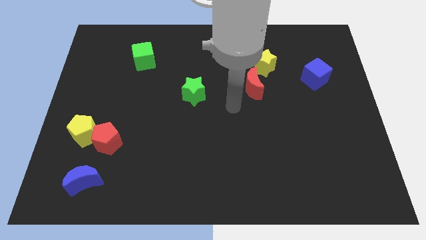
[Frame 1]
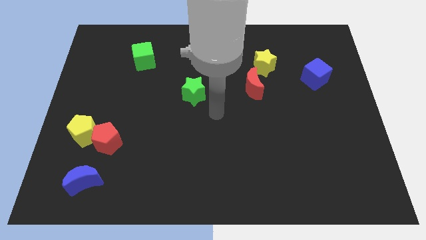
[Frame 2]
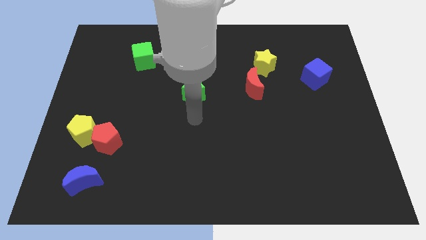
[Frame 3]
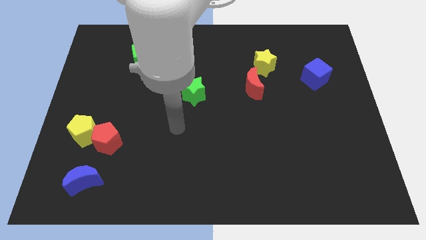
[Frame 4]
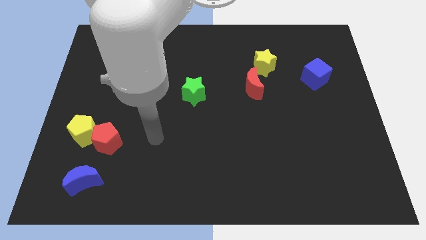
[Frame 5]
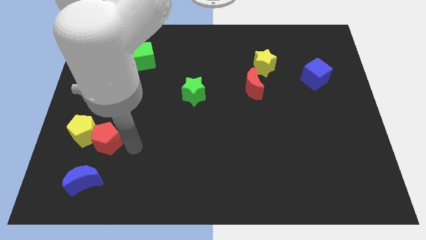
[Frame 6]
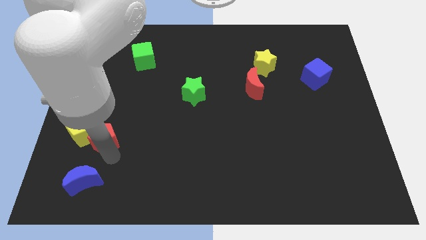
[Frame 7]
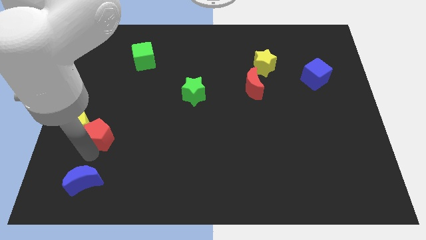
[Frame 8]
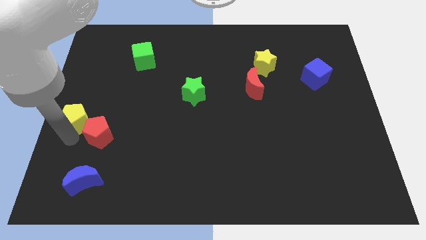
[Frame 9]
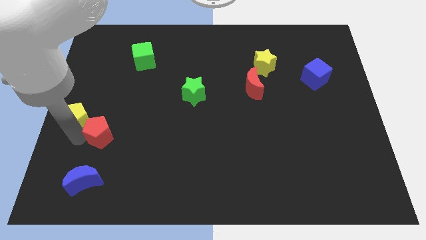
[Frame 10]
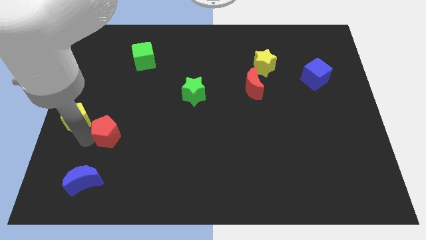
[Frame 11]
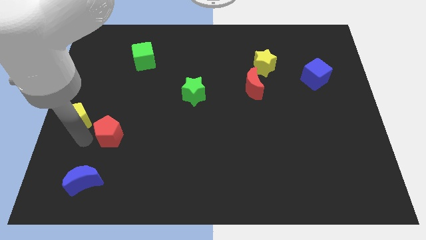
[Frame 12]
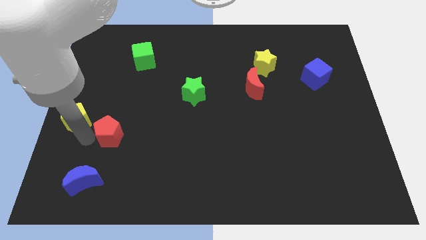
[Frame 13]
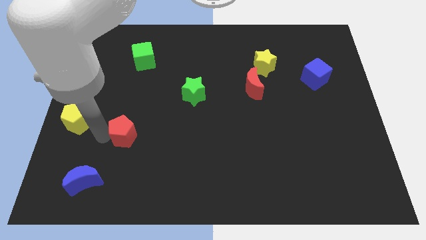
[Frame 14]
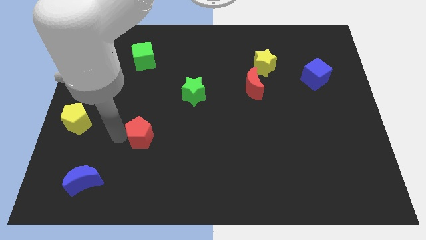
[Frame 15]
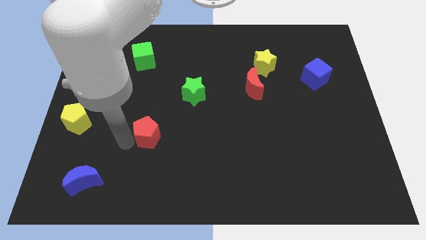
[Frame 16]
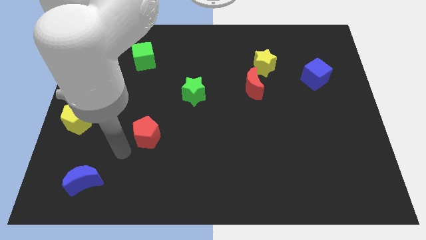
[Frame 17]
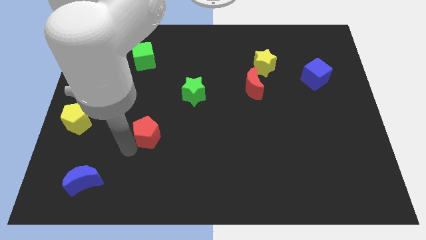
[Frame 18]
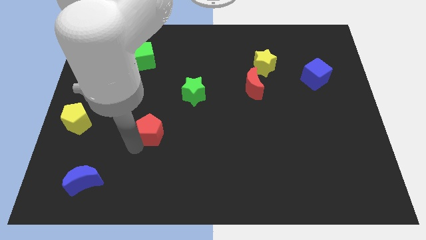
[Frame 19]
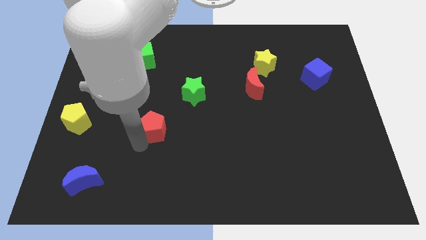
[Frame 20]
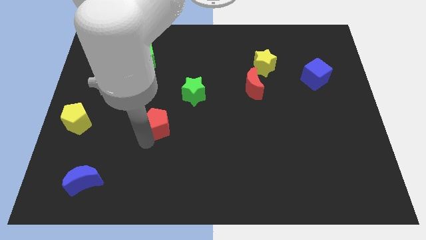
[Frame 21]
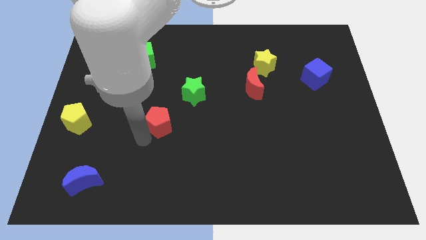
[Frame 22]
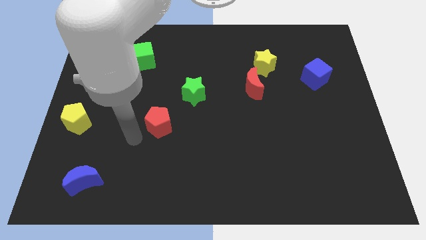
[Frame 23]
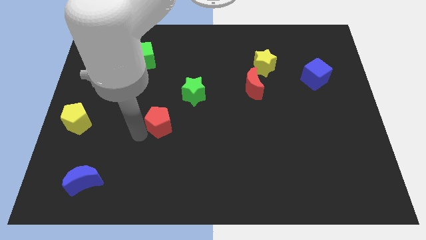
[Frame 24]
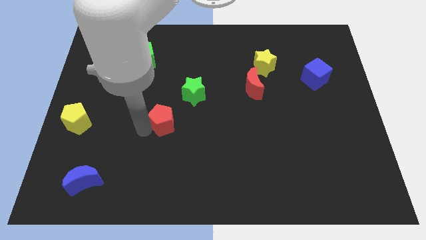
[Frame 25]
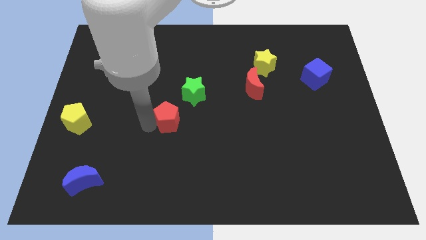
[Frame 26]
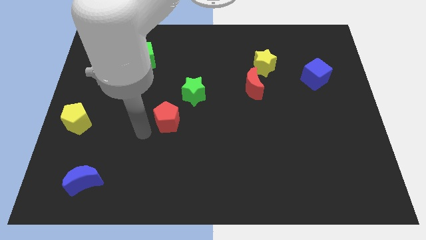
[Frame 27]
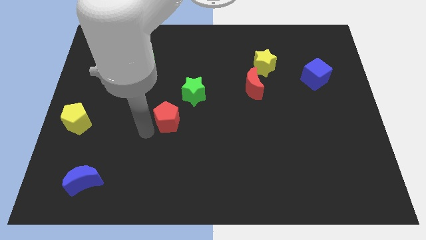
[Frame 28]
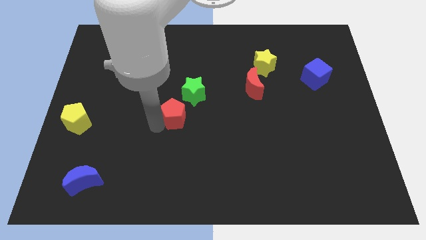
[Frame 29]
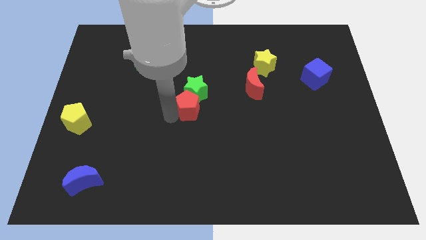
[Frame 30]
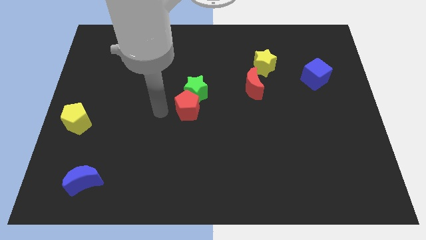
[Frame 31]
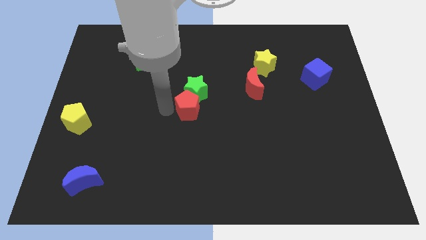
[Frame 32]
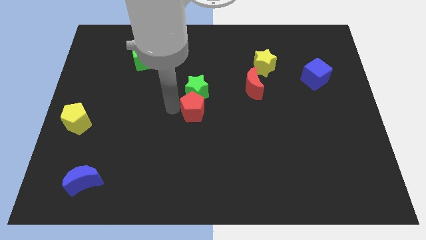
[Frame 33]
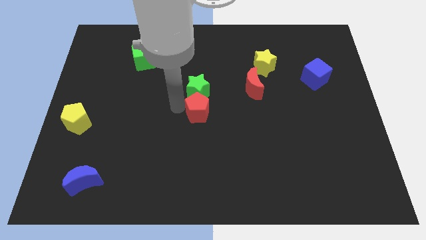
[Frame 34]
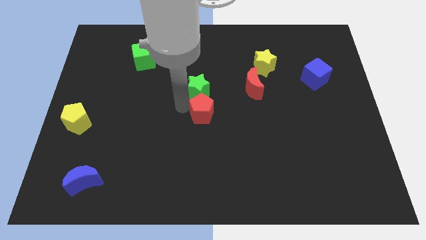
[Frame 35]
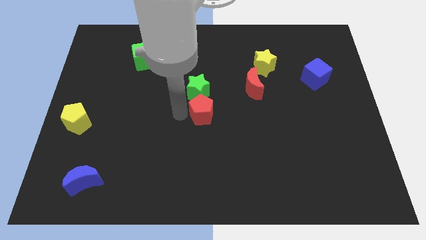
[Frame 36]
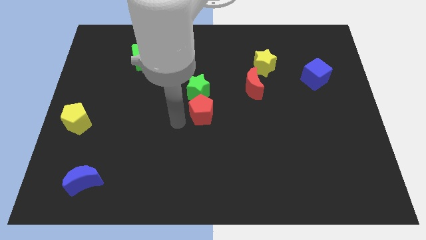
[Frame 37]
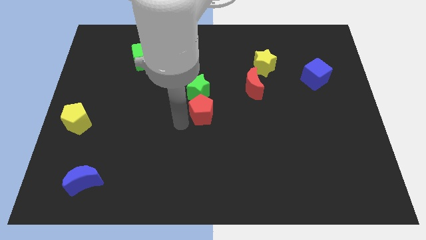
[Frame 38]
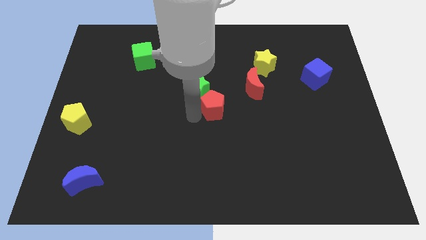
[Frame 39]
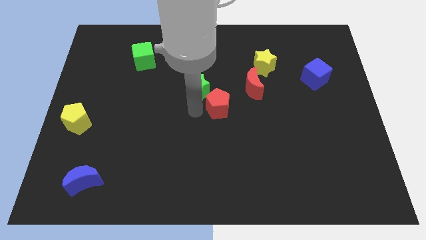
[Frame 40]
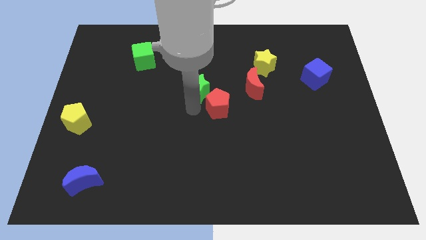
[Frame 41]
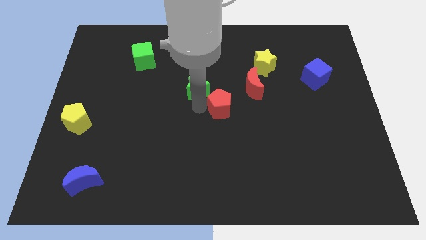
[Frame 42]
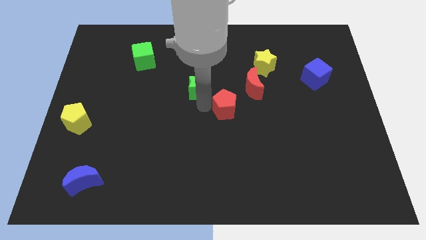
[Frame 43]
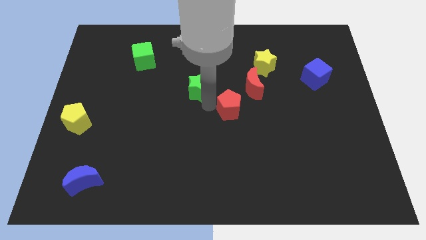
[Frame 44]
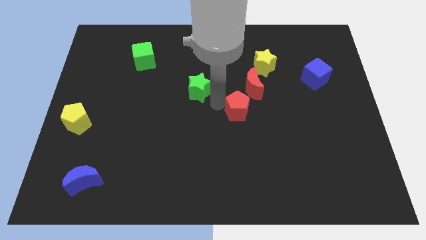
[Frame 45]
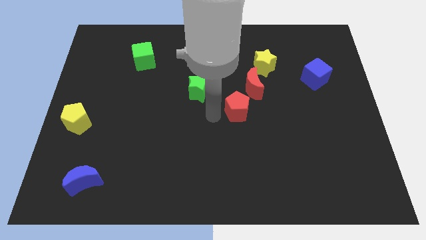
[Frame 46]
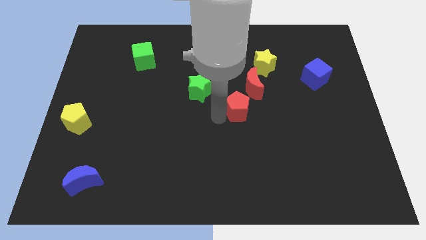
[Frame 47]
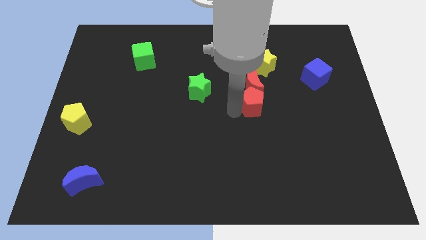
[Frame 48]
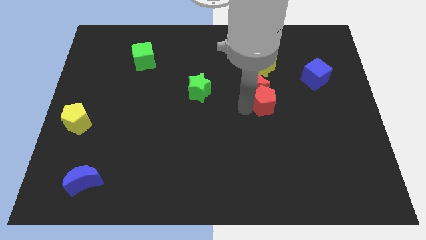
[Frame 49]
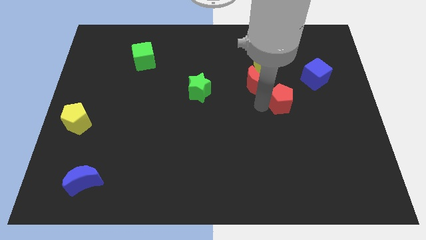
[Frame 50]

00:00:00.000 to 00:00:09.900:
push the red pentagon to the bottom left of the blue cube

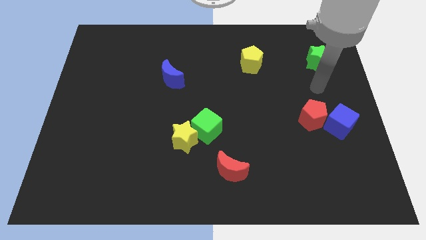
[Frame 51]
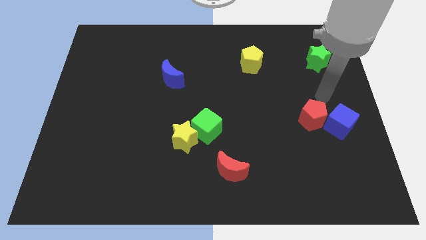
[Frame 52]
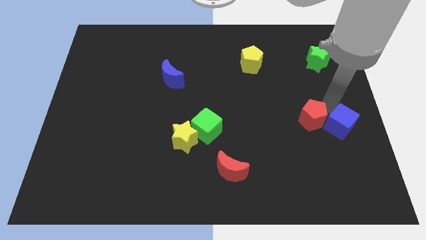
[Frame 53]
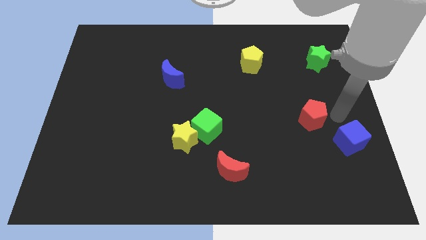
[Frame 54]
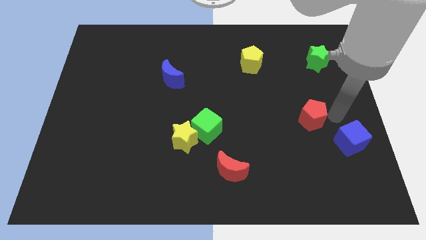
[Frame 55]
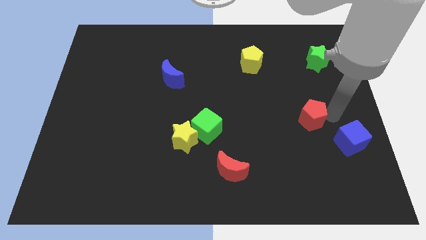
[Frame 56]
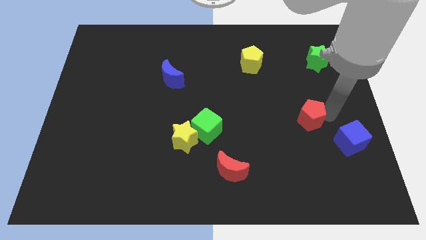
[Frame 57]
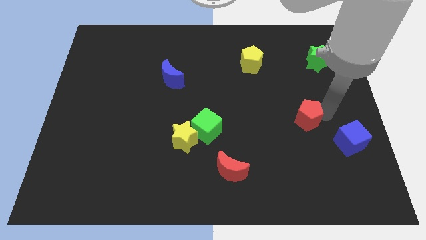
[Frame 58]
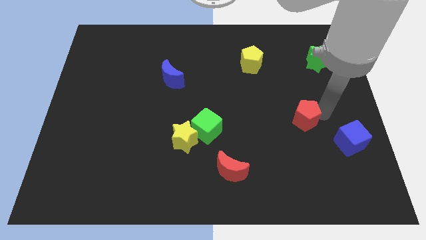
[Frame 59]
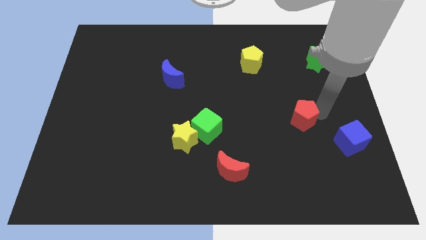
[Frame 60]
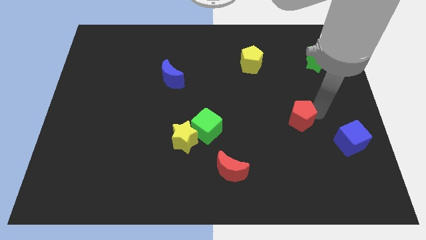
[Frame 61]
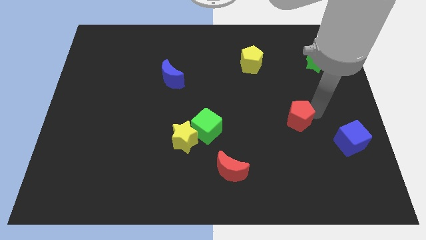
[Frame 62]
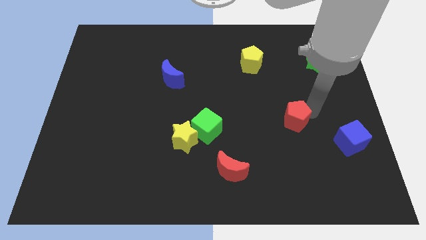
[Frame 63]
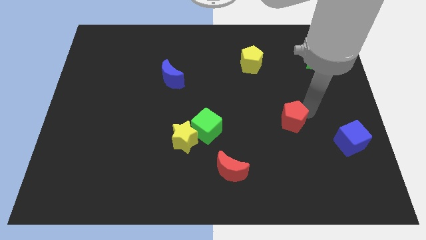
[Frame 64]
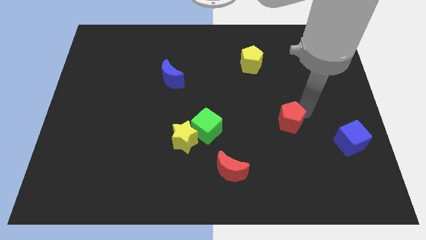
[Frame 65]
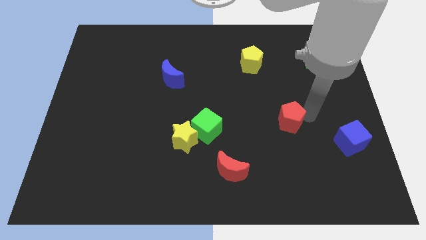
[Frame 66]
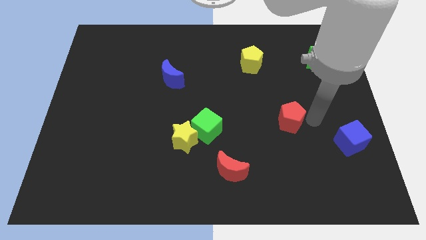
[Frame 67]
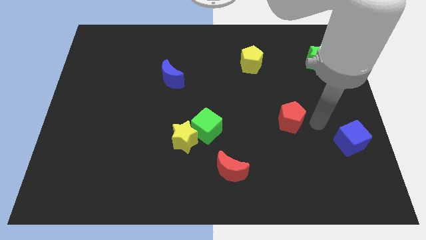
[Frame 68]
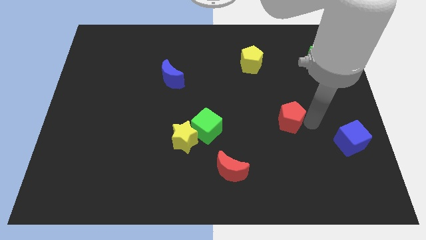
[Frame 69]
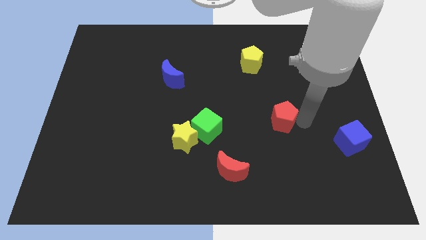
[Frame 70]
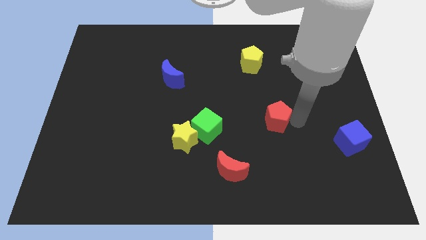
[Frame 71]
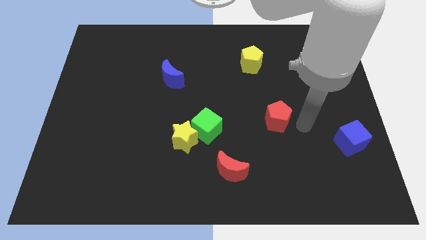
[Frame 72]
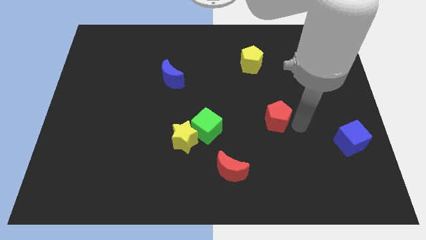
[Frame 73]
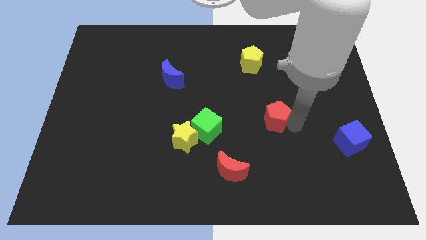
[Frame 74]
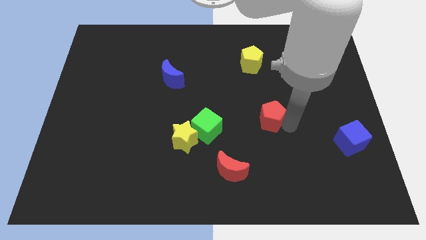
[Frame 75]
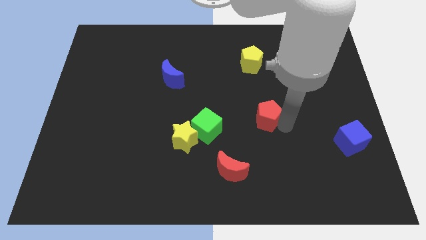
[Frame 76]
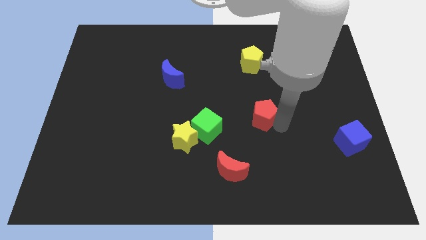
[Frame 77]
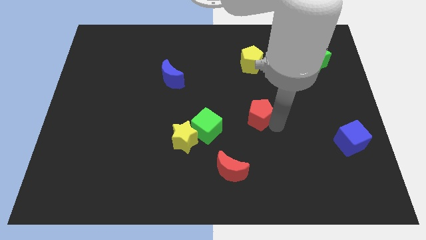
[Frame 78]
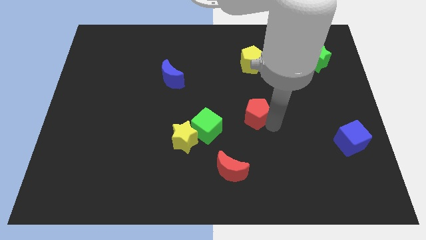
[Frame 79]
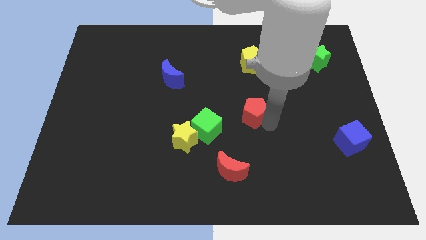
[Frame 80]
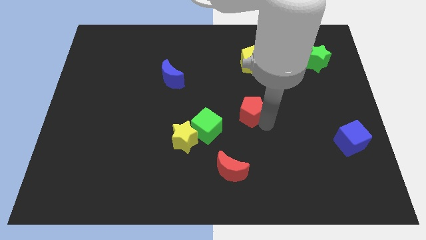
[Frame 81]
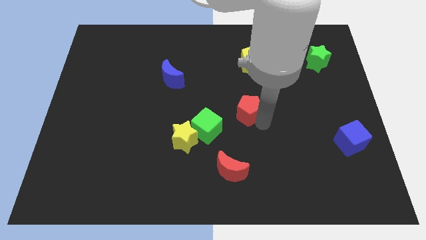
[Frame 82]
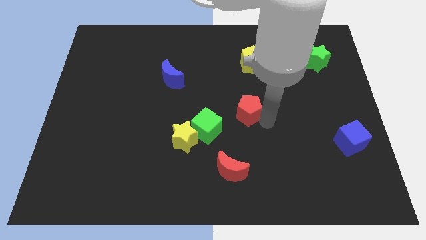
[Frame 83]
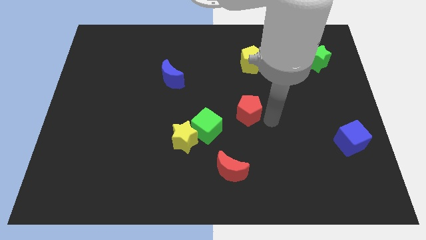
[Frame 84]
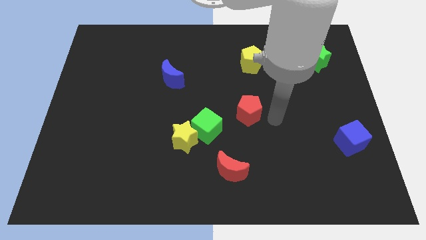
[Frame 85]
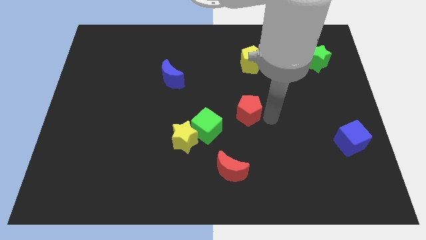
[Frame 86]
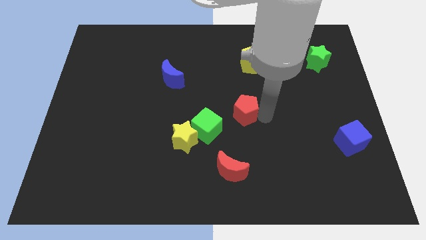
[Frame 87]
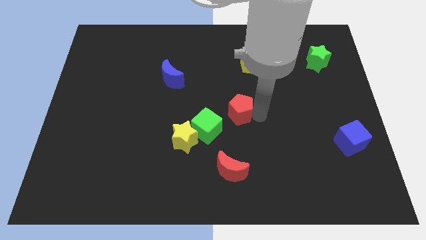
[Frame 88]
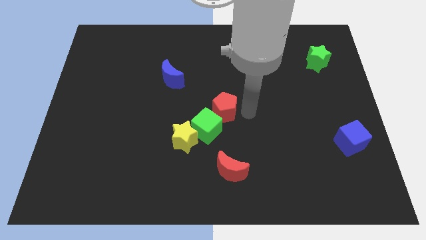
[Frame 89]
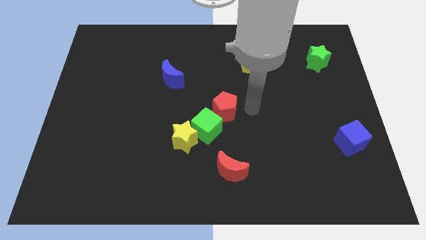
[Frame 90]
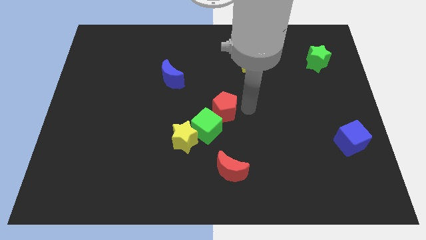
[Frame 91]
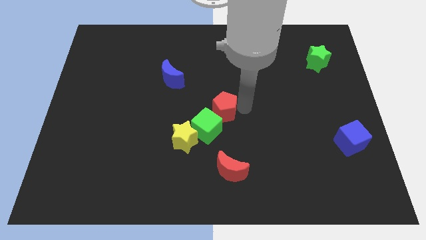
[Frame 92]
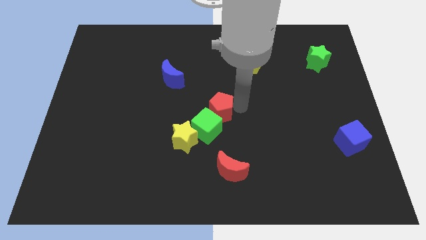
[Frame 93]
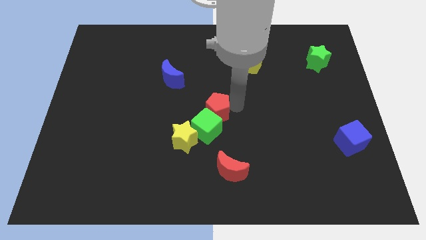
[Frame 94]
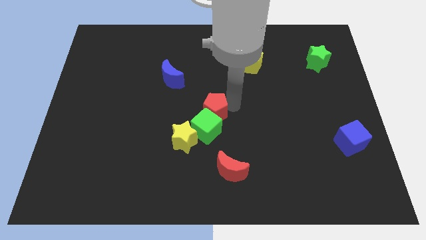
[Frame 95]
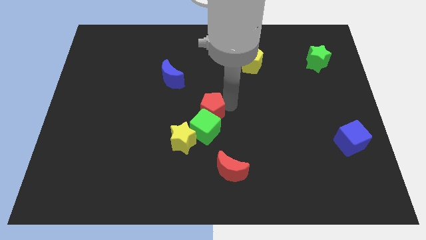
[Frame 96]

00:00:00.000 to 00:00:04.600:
slide the red pentagon to the top left of the green cube
